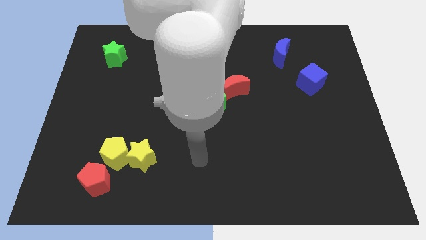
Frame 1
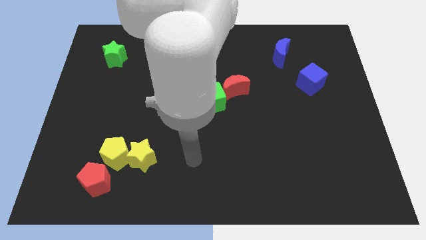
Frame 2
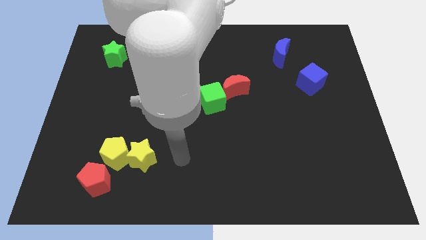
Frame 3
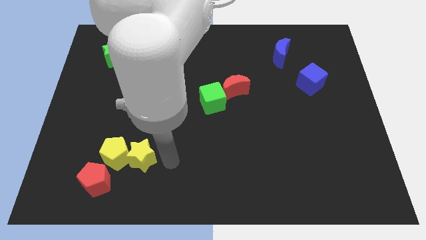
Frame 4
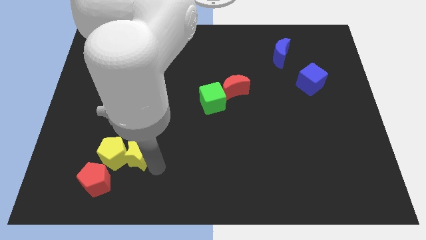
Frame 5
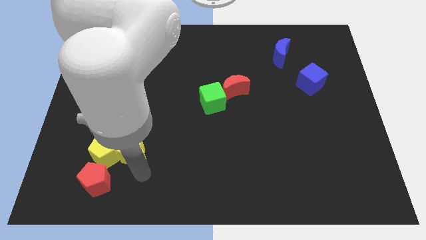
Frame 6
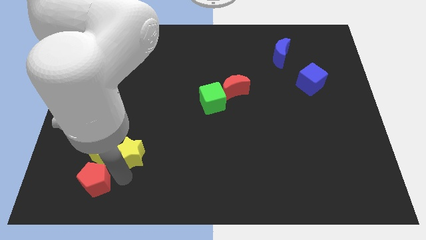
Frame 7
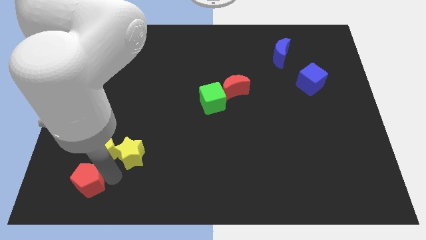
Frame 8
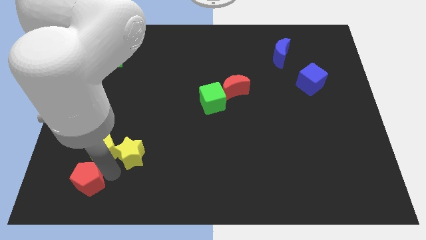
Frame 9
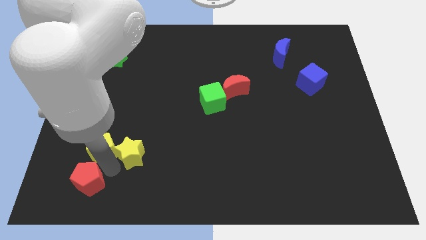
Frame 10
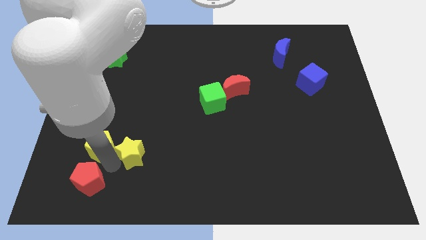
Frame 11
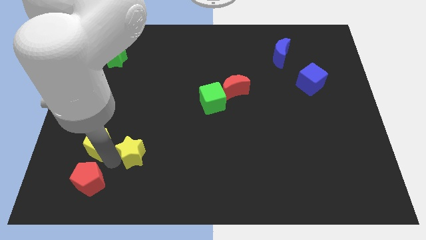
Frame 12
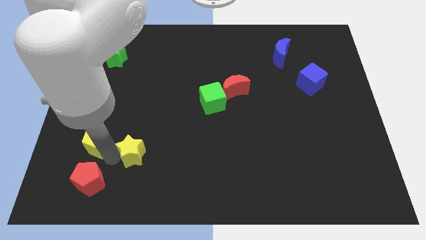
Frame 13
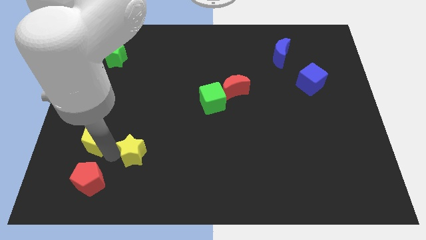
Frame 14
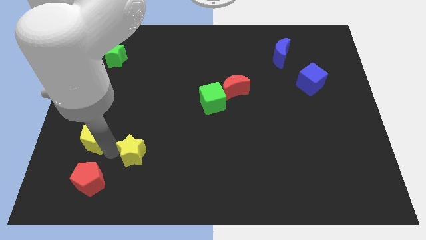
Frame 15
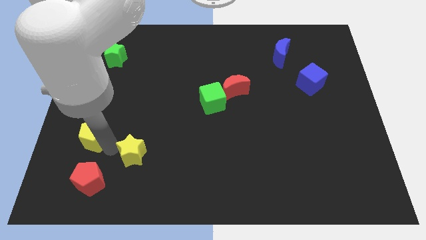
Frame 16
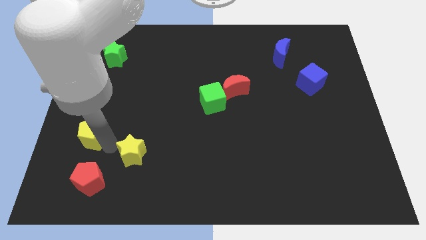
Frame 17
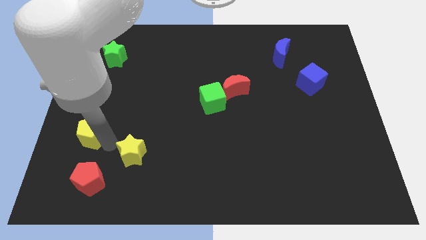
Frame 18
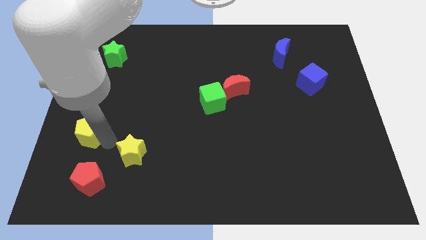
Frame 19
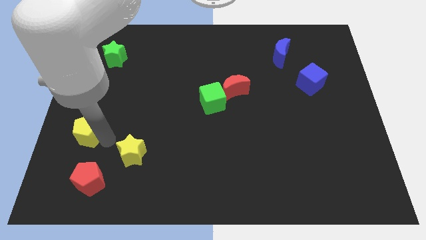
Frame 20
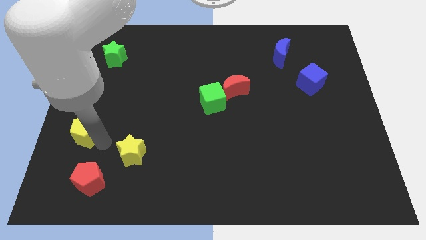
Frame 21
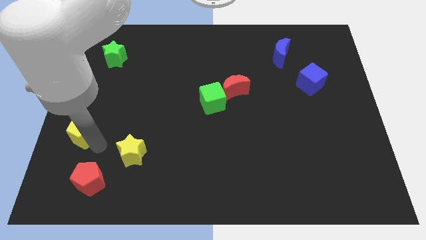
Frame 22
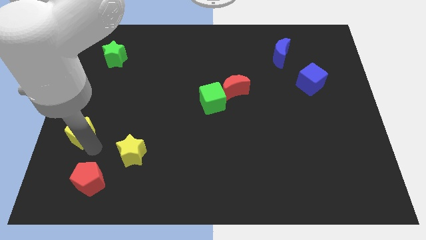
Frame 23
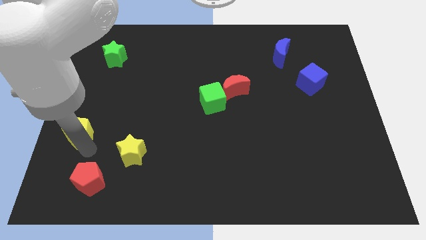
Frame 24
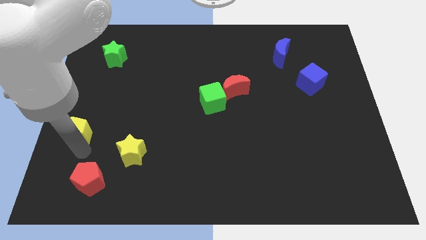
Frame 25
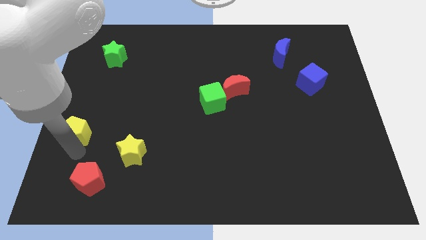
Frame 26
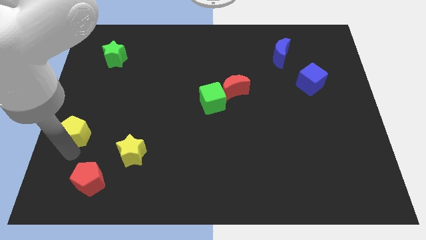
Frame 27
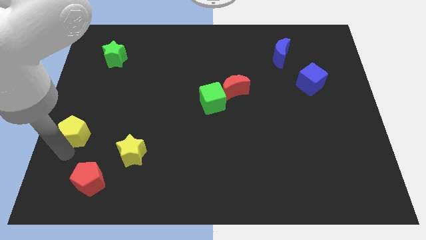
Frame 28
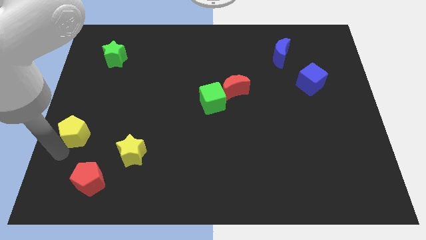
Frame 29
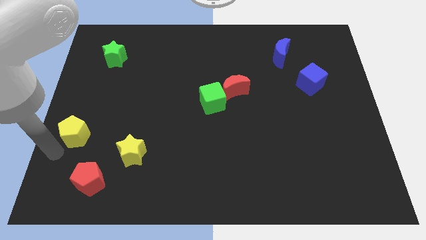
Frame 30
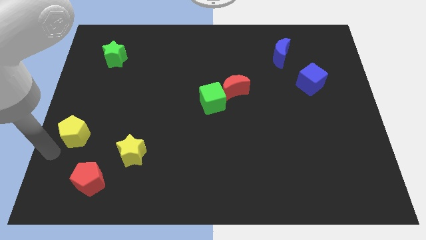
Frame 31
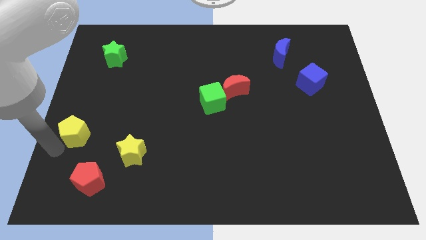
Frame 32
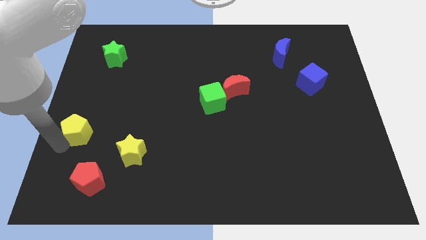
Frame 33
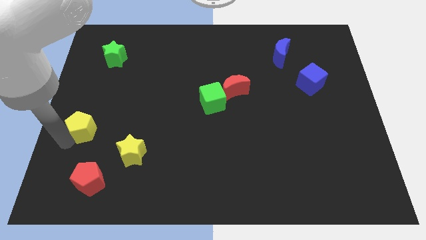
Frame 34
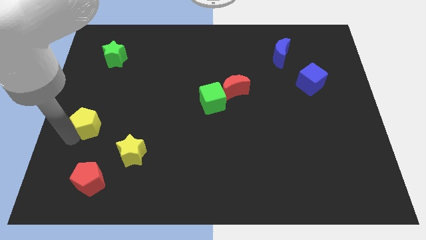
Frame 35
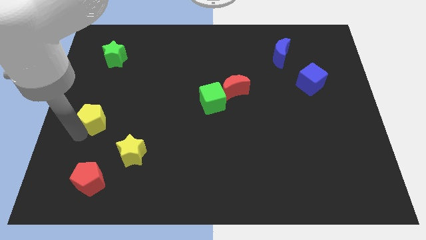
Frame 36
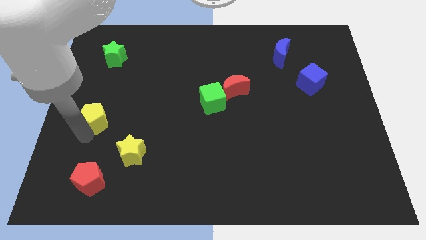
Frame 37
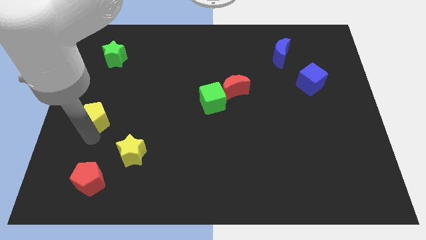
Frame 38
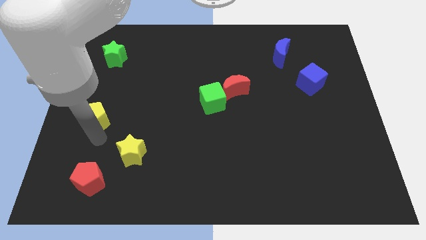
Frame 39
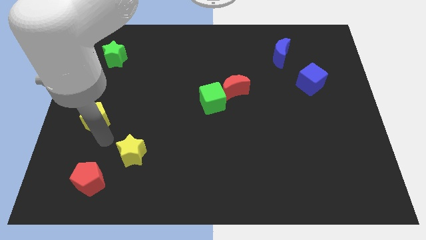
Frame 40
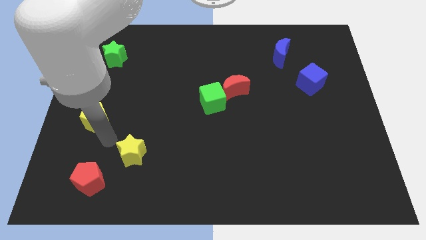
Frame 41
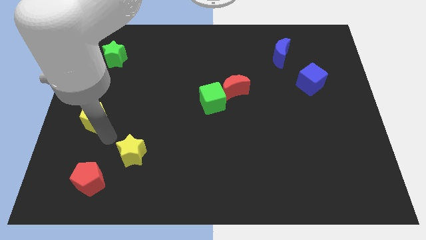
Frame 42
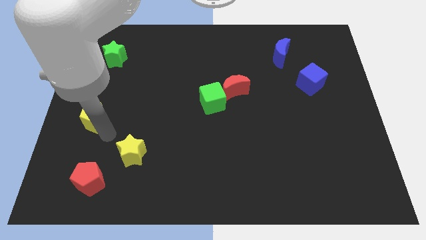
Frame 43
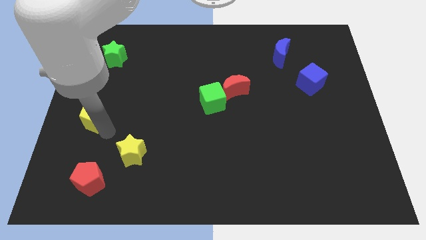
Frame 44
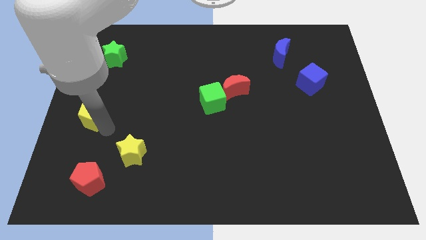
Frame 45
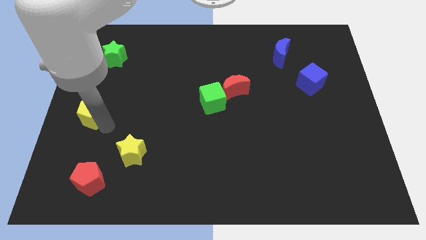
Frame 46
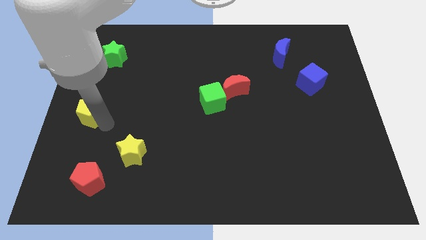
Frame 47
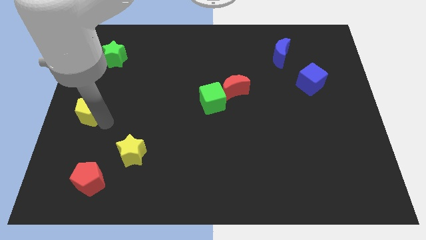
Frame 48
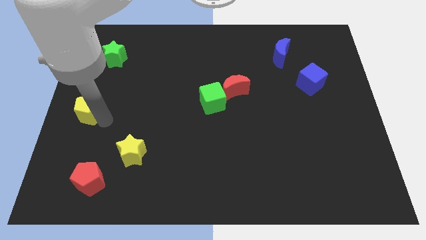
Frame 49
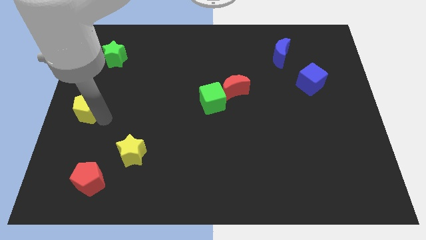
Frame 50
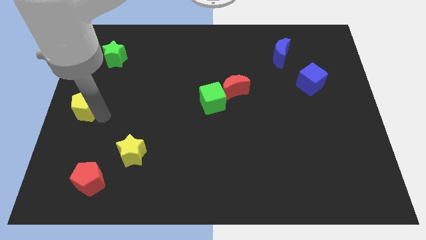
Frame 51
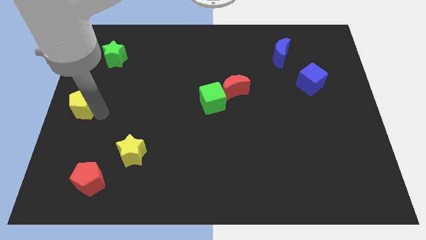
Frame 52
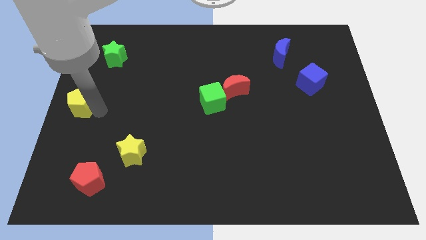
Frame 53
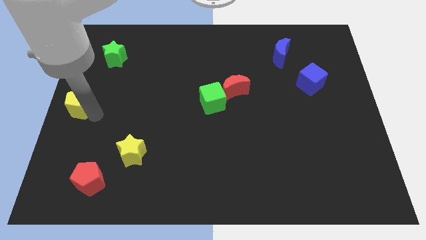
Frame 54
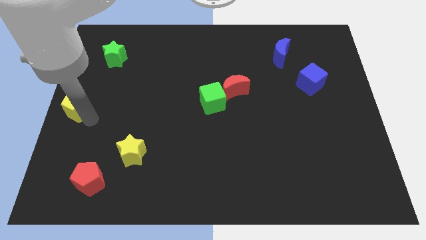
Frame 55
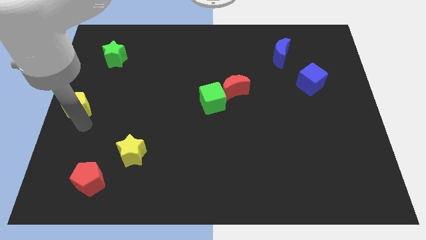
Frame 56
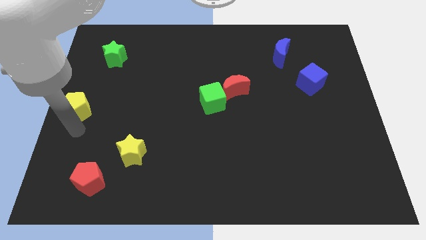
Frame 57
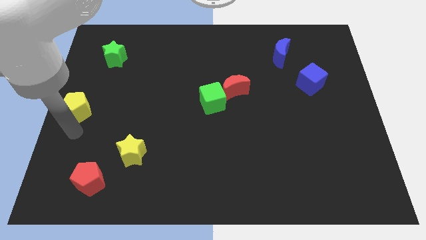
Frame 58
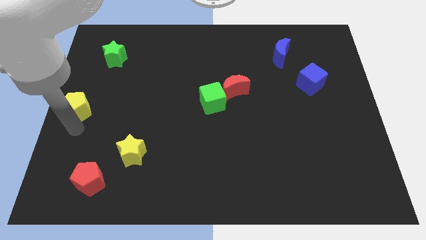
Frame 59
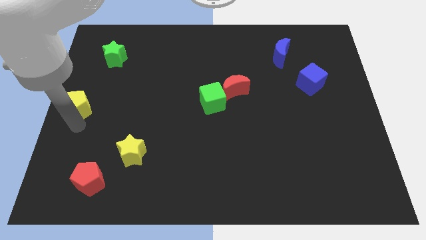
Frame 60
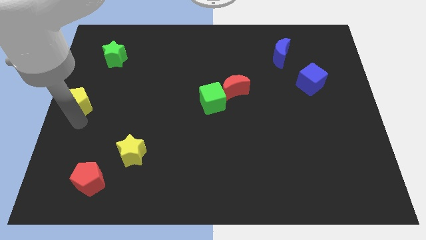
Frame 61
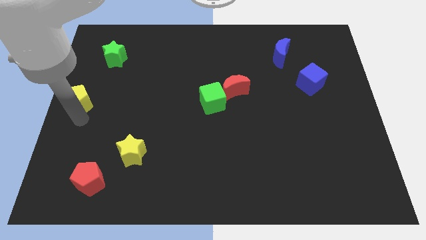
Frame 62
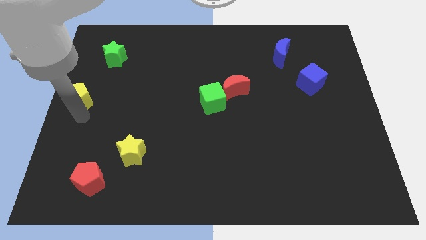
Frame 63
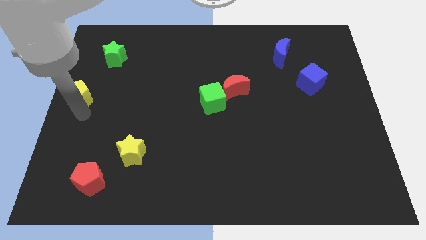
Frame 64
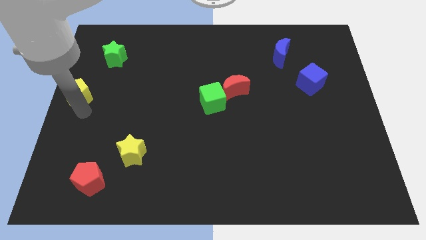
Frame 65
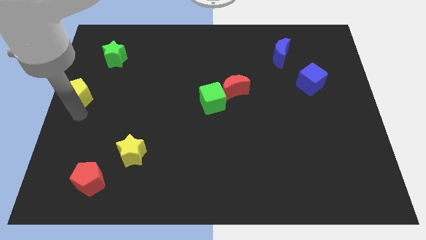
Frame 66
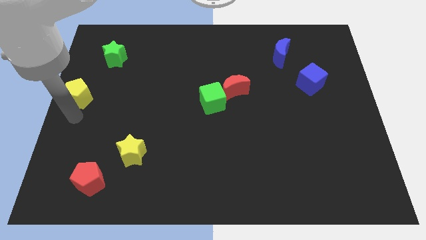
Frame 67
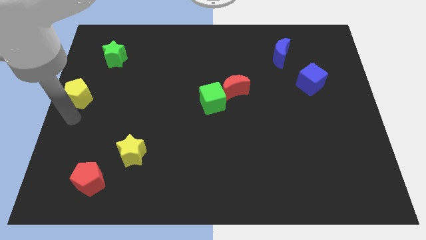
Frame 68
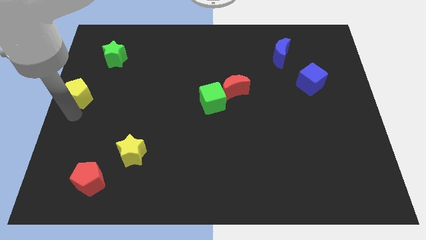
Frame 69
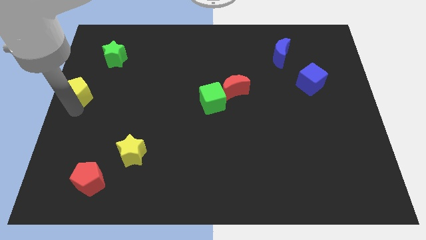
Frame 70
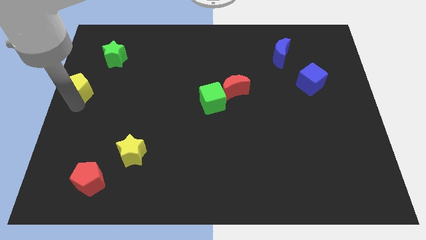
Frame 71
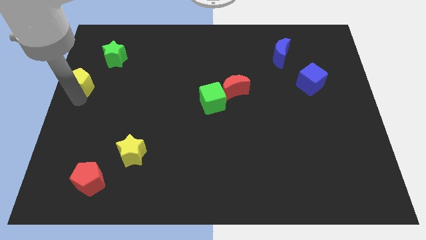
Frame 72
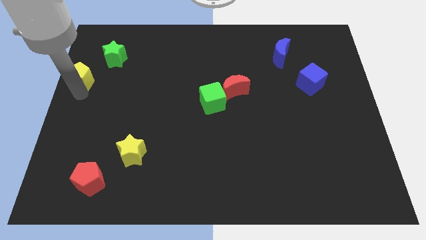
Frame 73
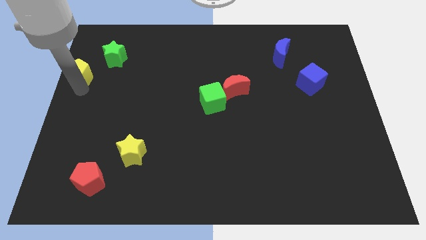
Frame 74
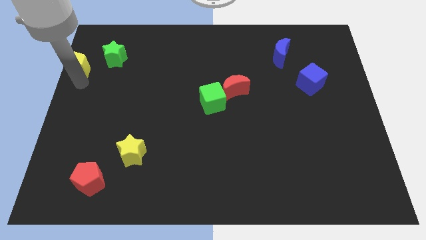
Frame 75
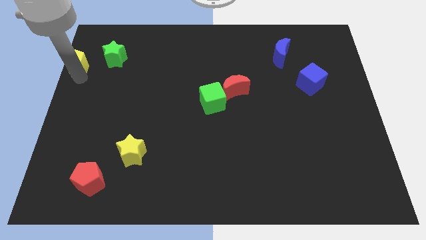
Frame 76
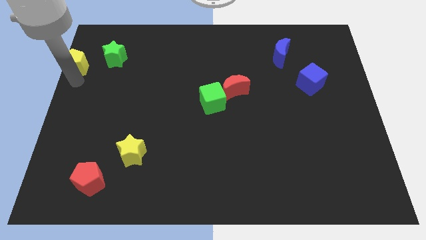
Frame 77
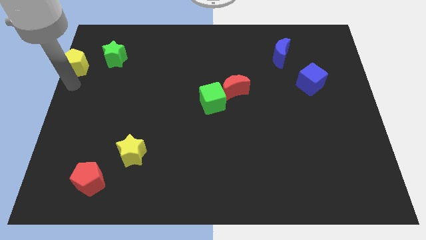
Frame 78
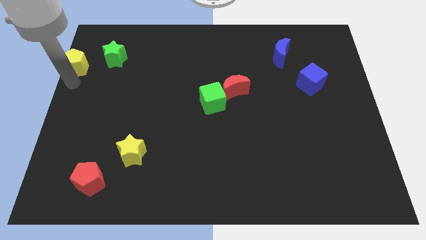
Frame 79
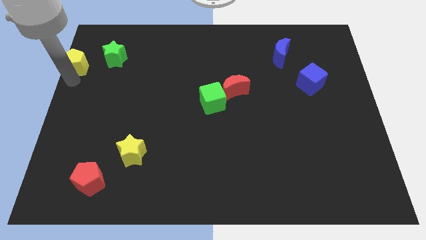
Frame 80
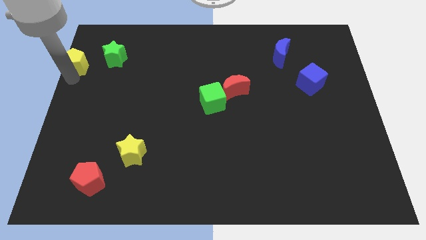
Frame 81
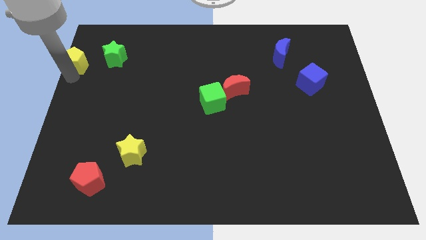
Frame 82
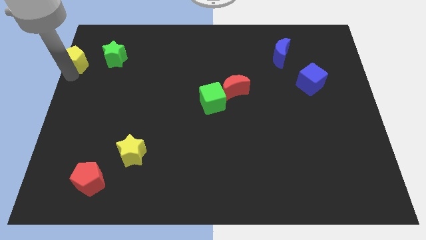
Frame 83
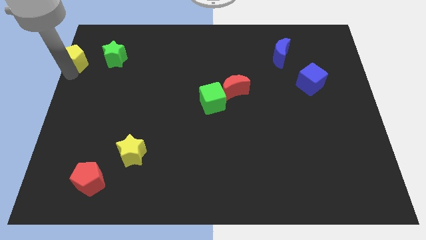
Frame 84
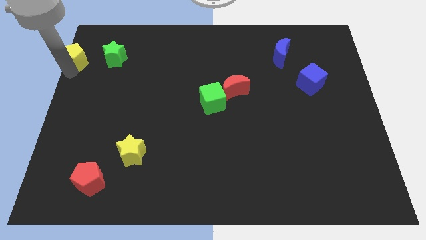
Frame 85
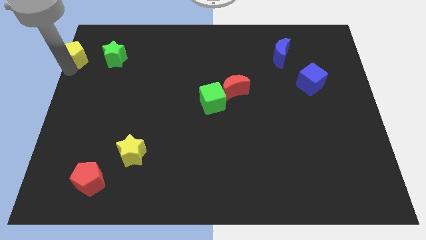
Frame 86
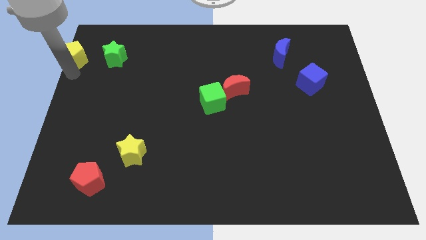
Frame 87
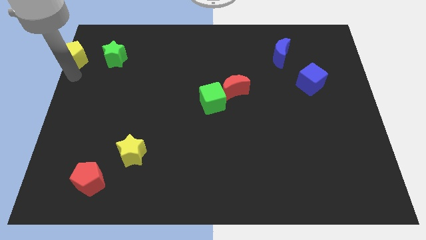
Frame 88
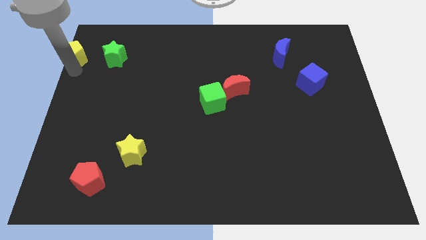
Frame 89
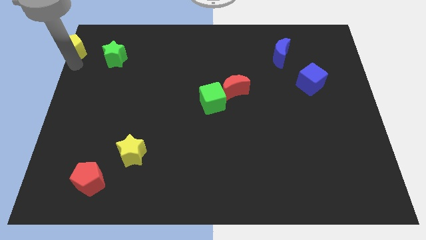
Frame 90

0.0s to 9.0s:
move the yellow pentagon to the top left corner
